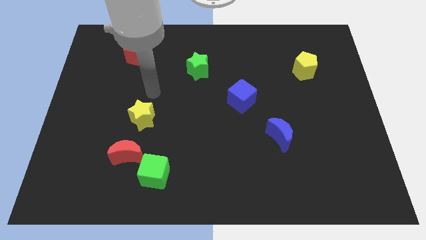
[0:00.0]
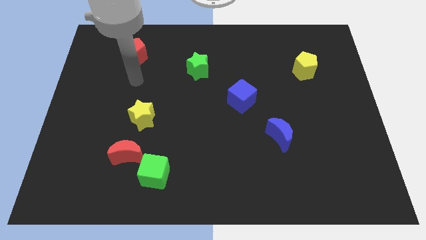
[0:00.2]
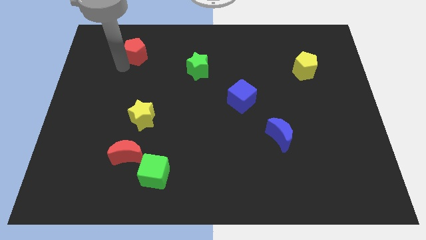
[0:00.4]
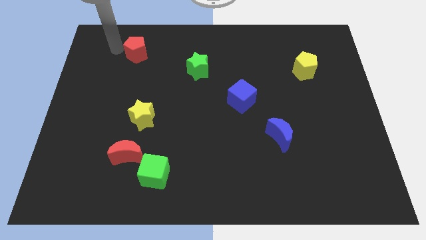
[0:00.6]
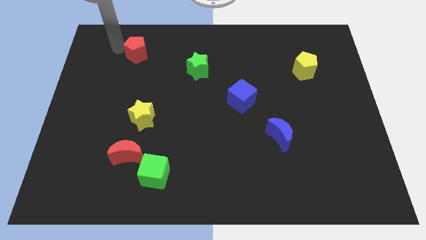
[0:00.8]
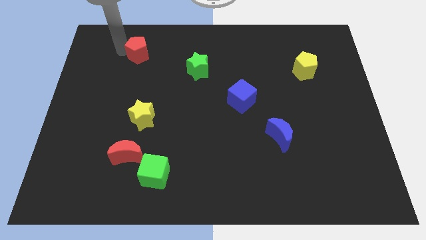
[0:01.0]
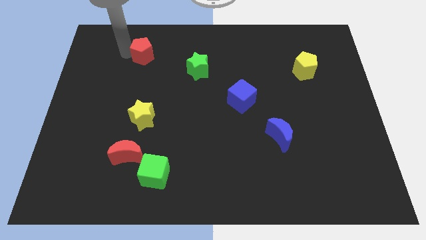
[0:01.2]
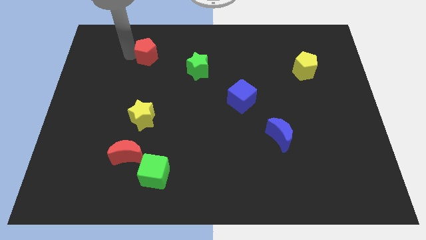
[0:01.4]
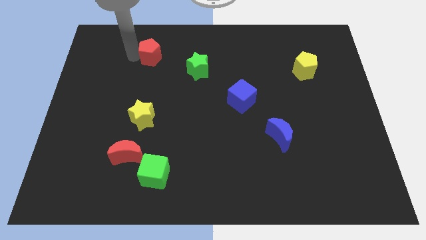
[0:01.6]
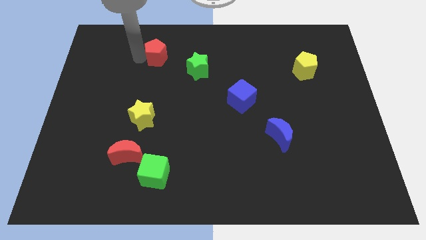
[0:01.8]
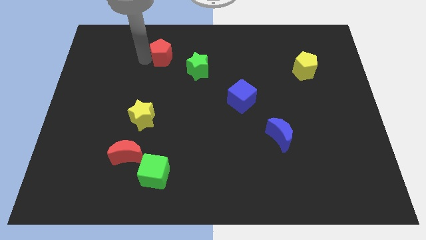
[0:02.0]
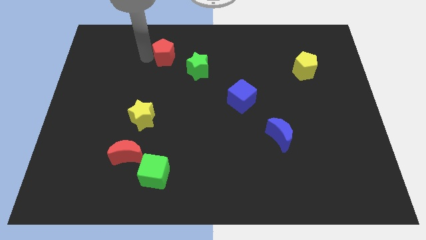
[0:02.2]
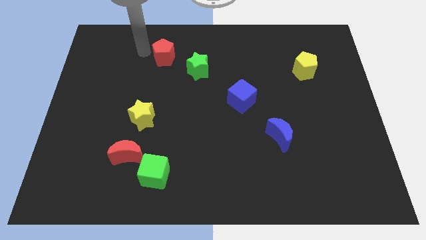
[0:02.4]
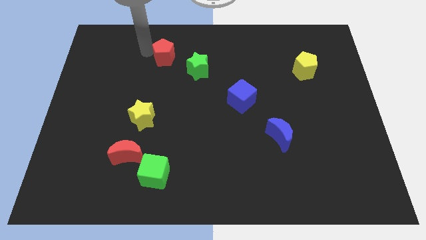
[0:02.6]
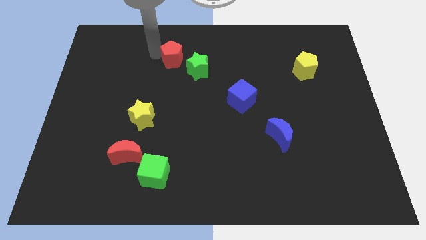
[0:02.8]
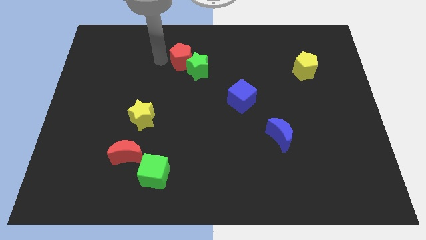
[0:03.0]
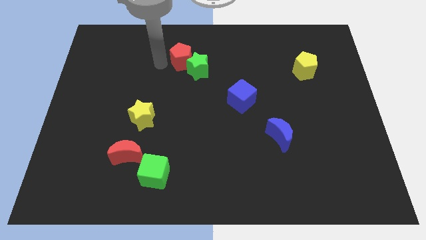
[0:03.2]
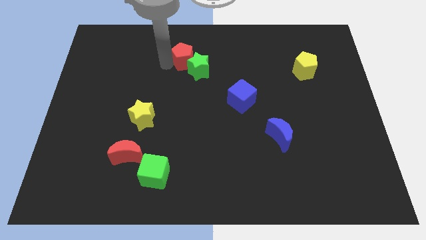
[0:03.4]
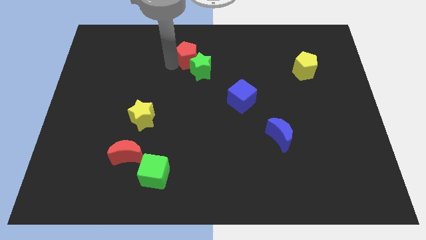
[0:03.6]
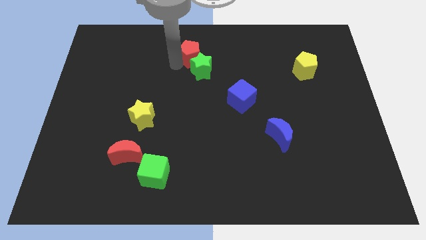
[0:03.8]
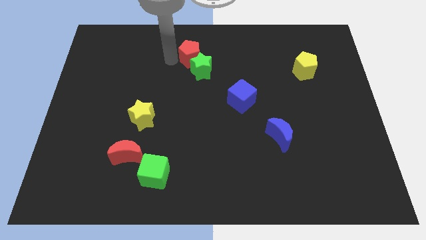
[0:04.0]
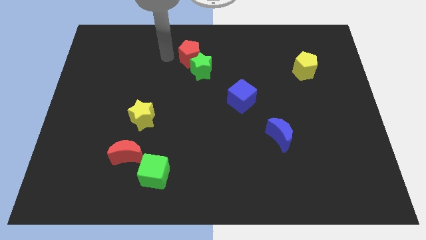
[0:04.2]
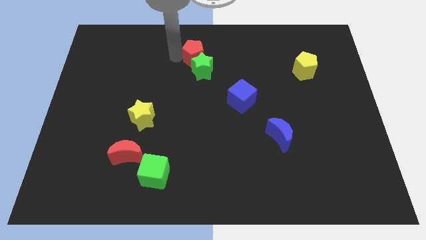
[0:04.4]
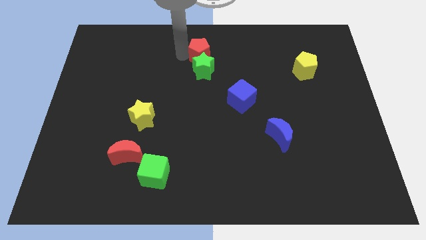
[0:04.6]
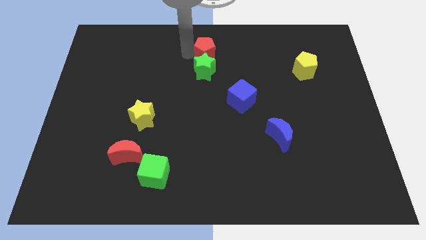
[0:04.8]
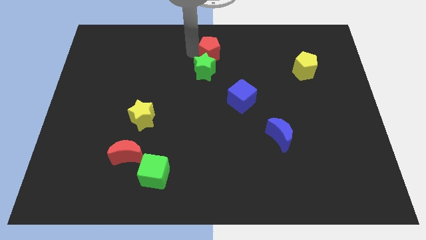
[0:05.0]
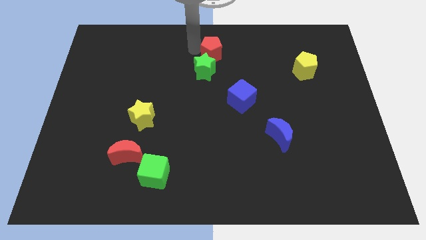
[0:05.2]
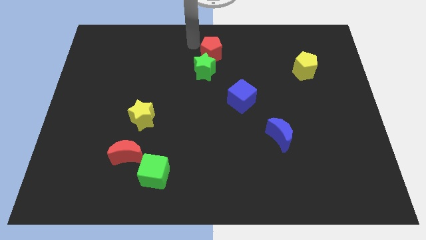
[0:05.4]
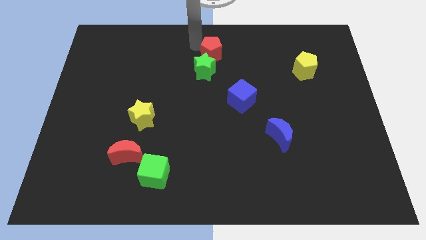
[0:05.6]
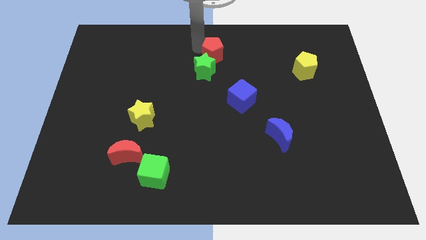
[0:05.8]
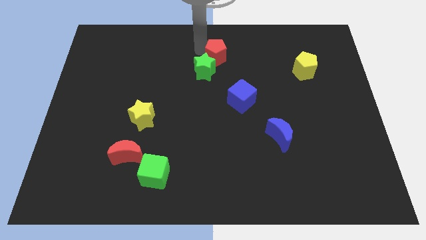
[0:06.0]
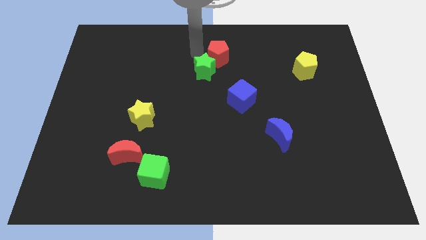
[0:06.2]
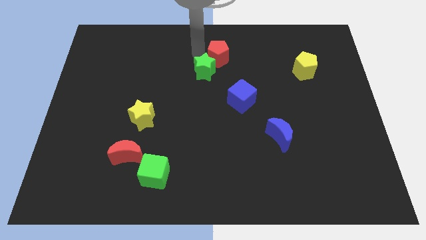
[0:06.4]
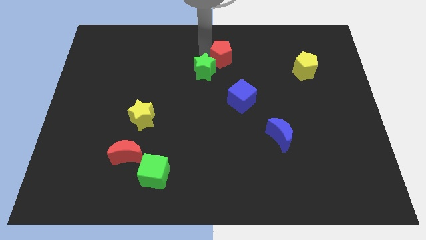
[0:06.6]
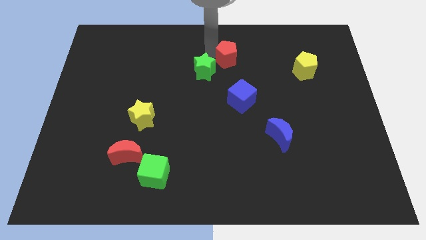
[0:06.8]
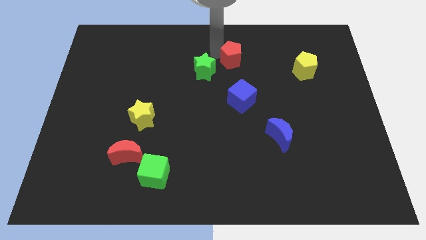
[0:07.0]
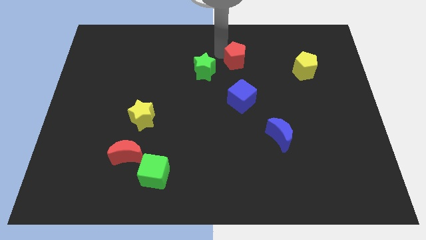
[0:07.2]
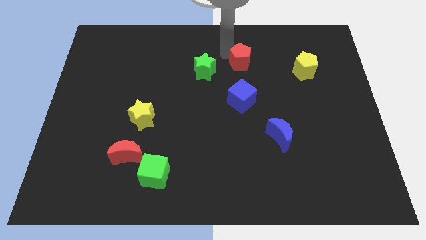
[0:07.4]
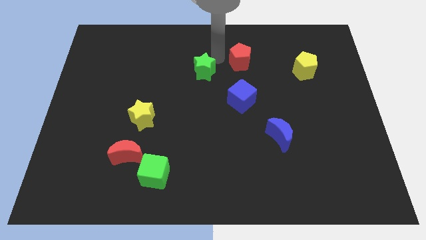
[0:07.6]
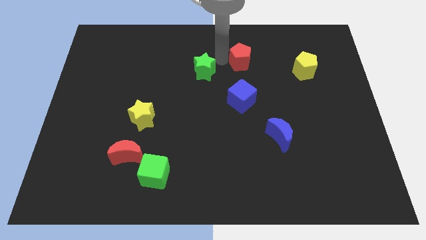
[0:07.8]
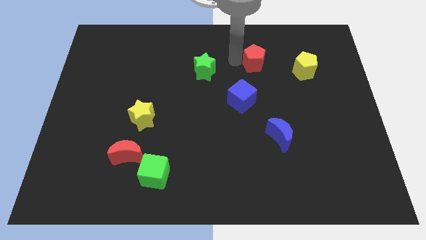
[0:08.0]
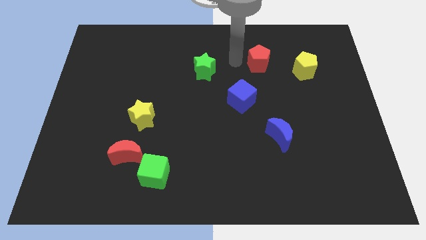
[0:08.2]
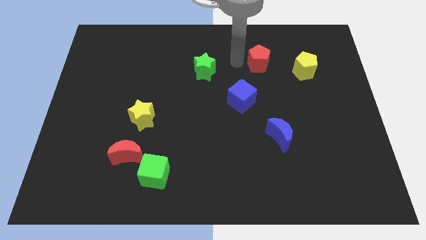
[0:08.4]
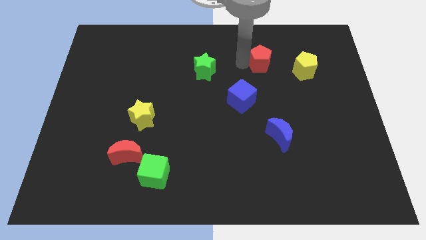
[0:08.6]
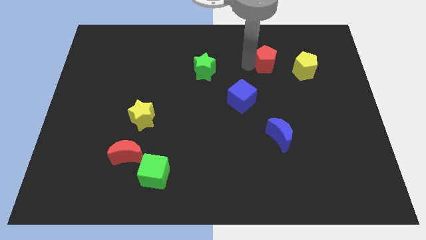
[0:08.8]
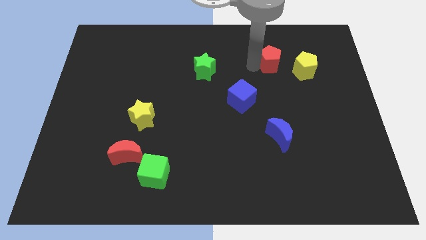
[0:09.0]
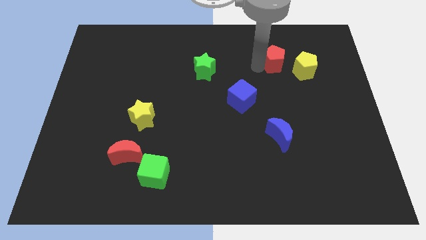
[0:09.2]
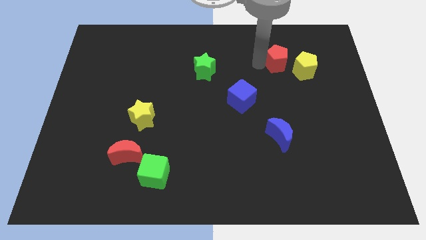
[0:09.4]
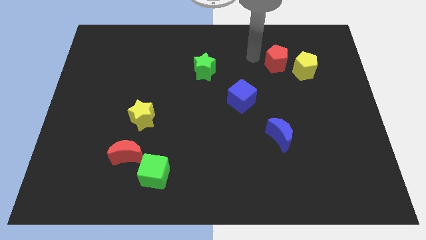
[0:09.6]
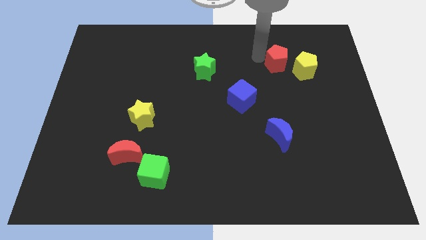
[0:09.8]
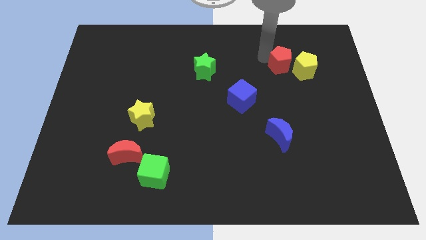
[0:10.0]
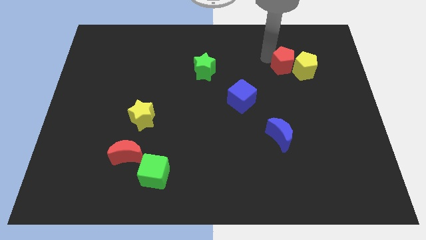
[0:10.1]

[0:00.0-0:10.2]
push the red pentagon next to the yellow pentagon

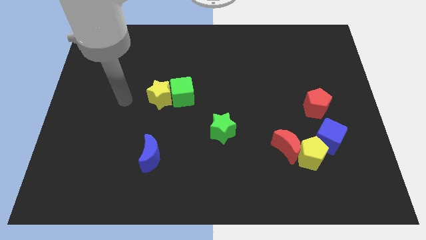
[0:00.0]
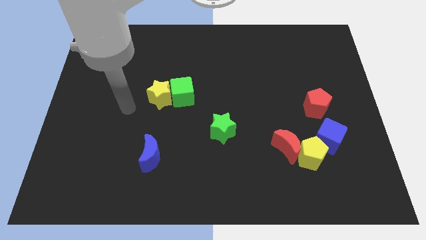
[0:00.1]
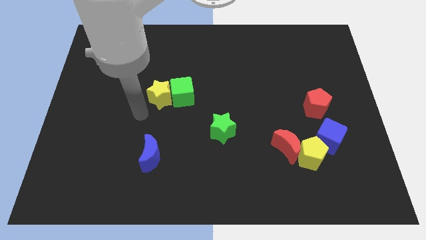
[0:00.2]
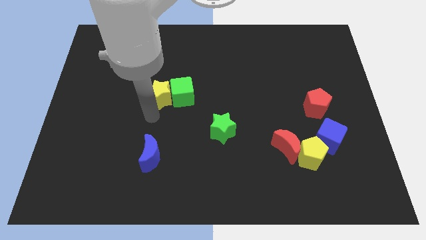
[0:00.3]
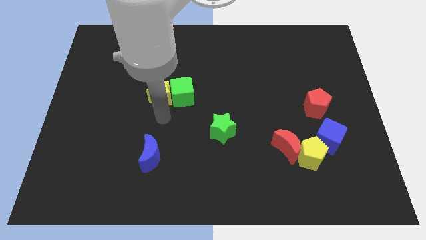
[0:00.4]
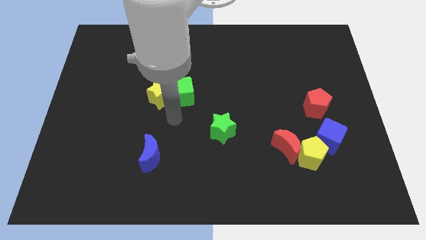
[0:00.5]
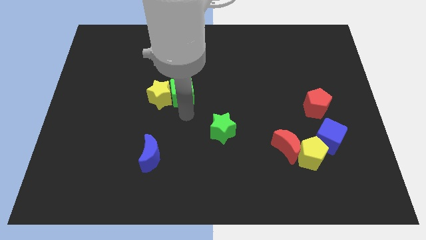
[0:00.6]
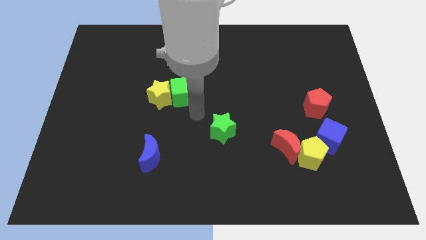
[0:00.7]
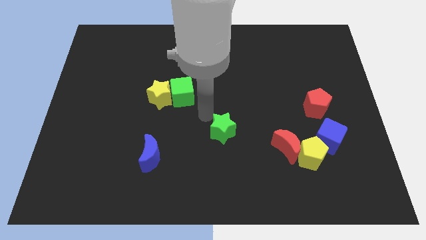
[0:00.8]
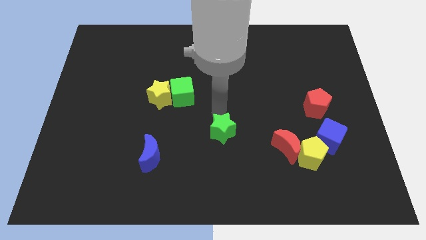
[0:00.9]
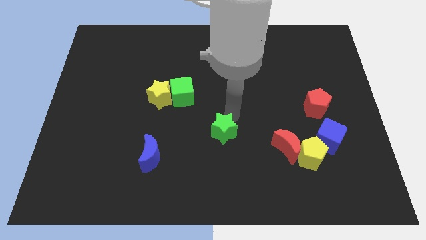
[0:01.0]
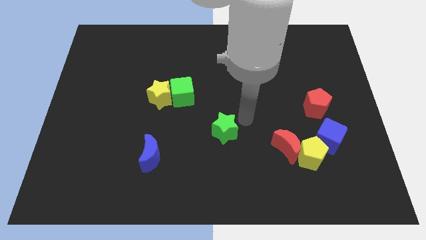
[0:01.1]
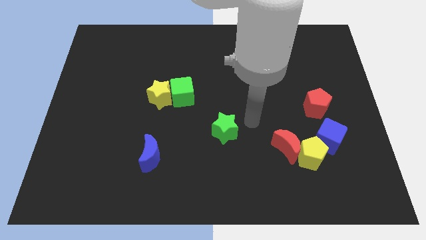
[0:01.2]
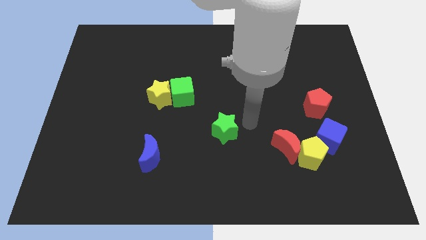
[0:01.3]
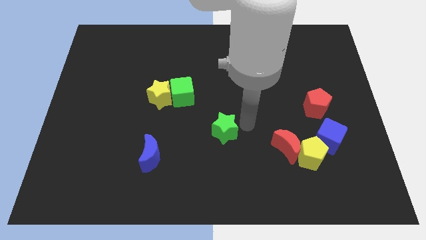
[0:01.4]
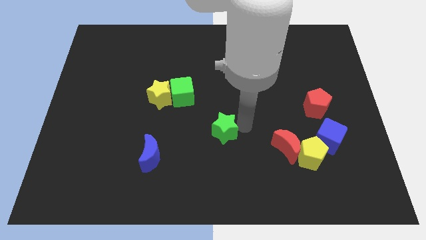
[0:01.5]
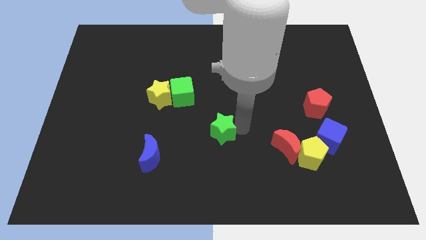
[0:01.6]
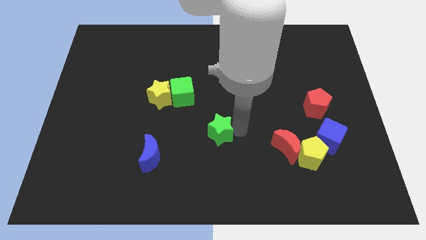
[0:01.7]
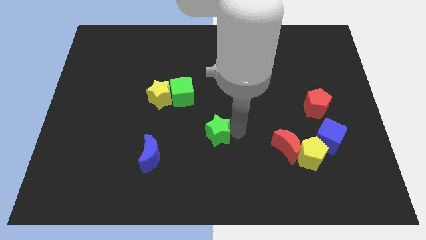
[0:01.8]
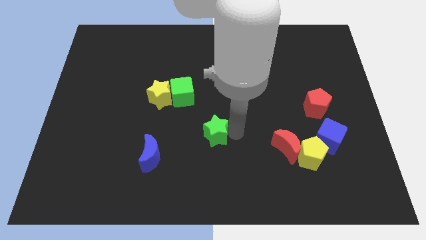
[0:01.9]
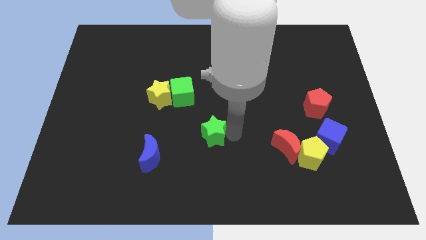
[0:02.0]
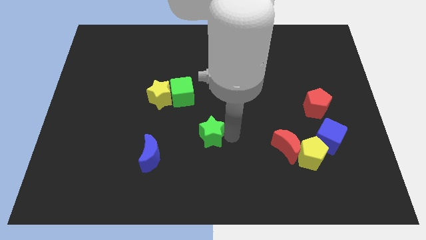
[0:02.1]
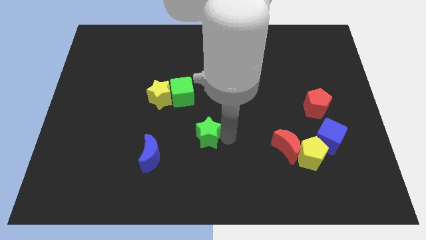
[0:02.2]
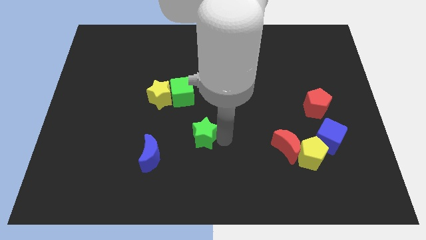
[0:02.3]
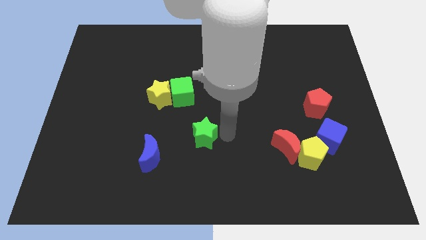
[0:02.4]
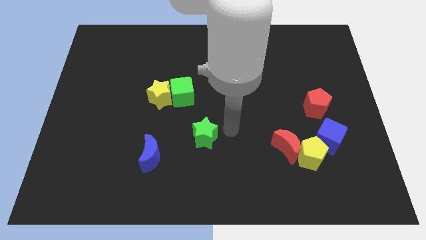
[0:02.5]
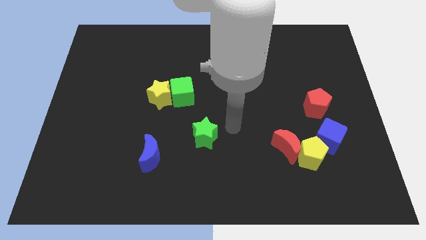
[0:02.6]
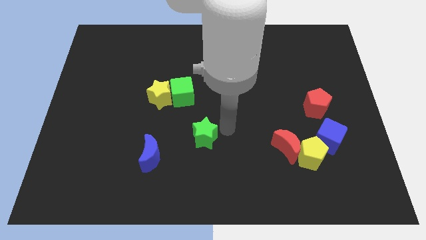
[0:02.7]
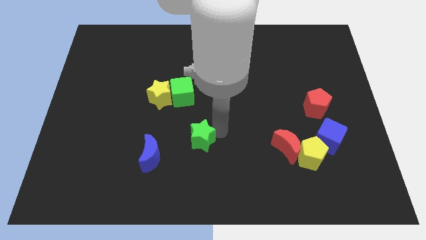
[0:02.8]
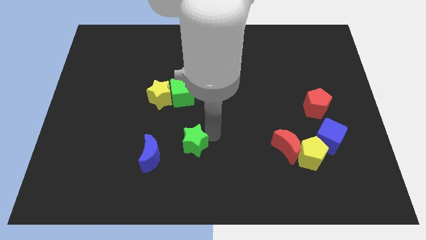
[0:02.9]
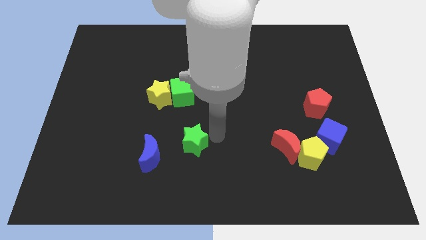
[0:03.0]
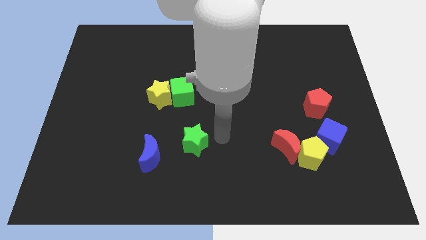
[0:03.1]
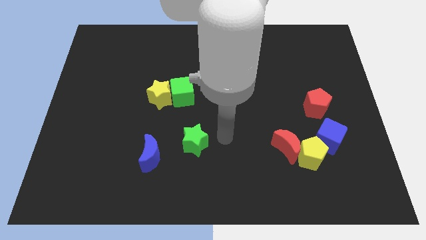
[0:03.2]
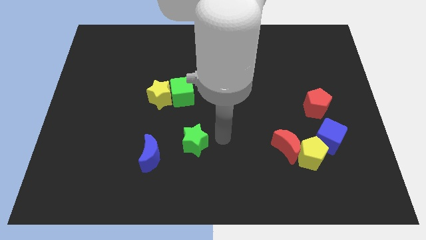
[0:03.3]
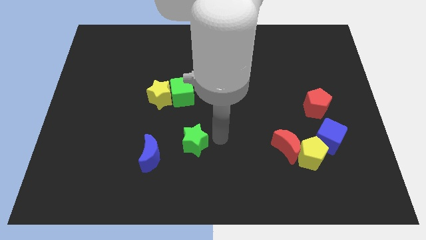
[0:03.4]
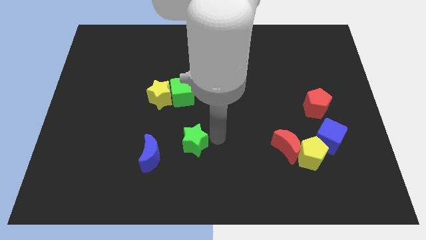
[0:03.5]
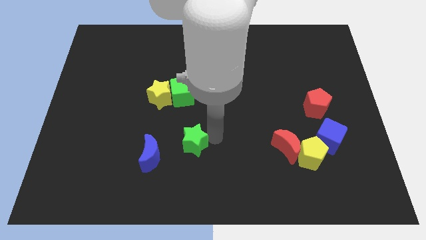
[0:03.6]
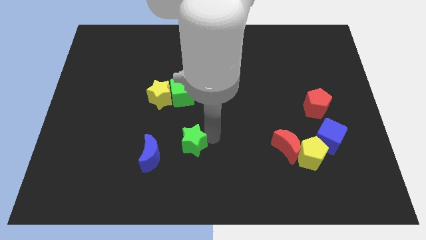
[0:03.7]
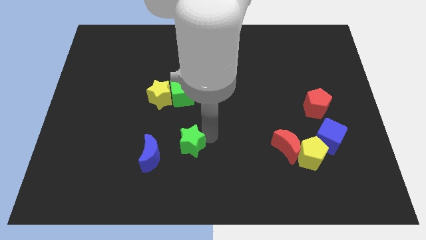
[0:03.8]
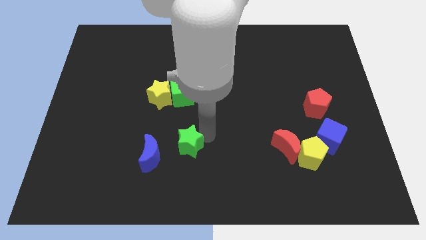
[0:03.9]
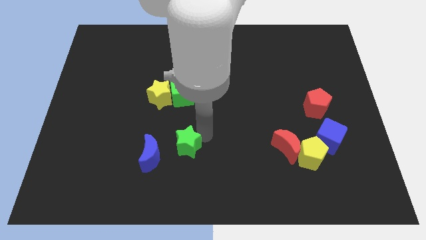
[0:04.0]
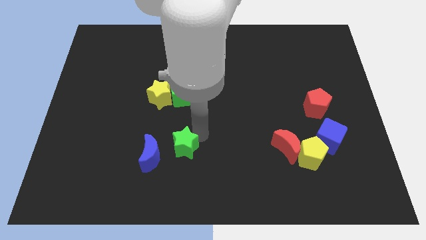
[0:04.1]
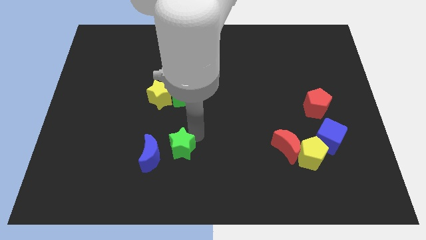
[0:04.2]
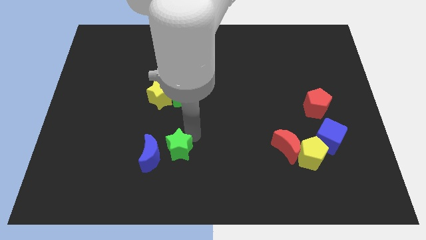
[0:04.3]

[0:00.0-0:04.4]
move the green star next to the blue moon
